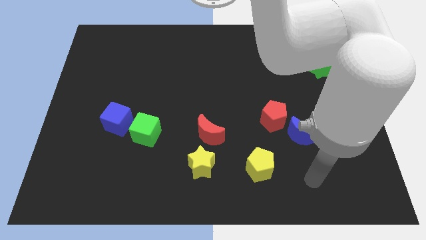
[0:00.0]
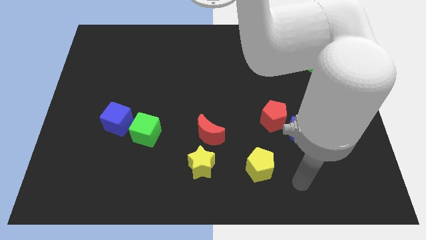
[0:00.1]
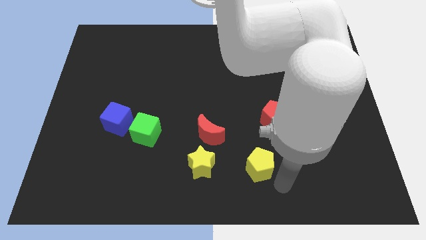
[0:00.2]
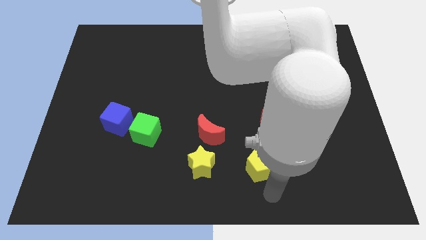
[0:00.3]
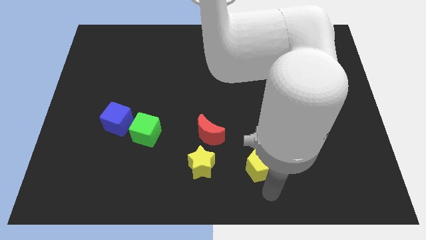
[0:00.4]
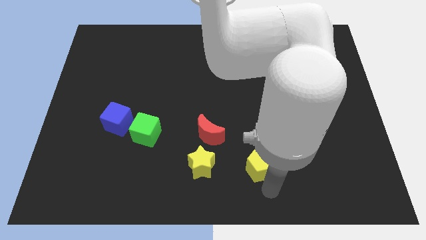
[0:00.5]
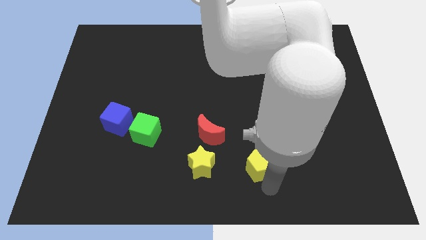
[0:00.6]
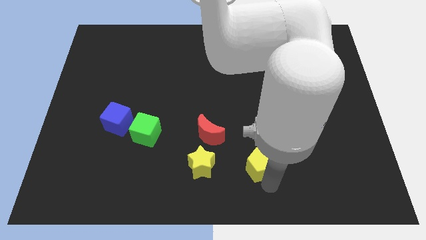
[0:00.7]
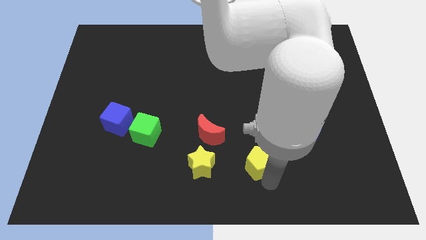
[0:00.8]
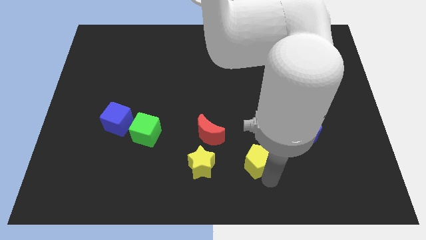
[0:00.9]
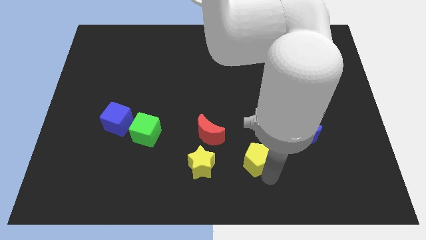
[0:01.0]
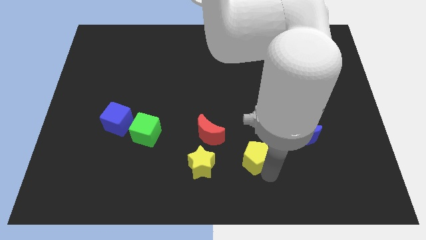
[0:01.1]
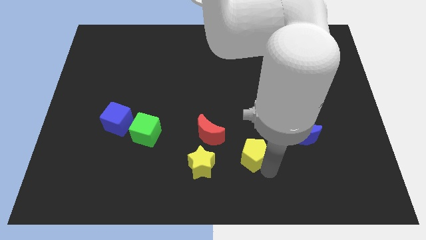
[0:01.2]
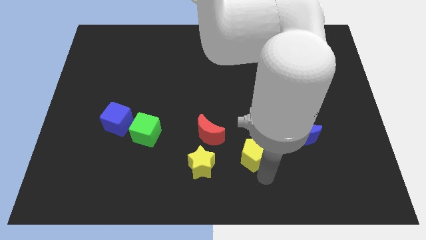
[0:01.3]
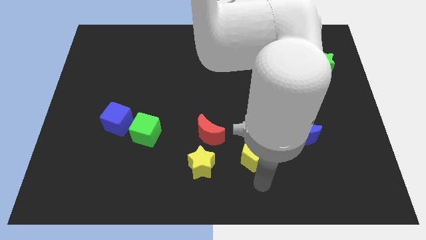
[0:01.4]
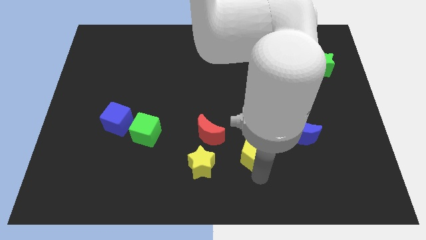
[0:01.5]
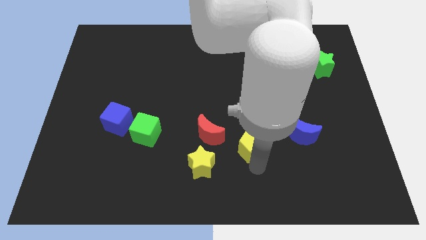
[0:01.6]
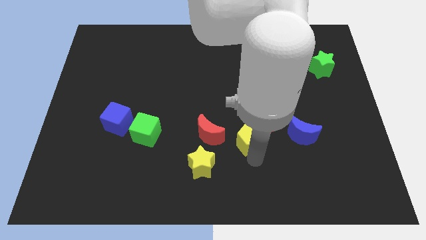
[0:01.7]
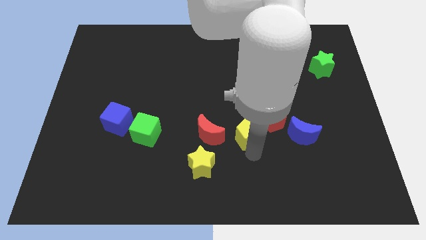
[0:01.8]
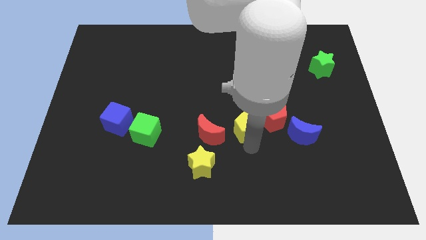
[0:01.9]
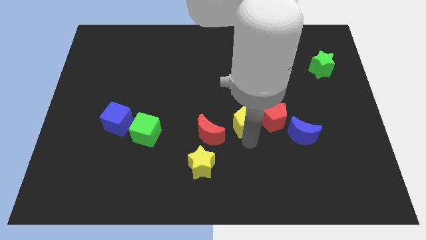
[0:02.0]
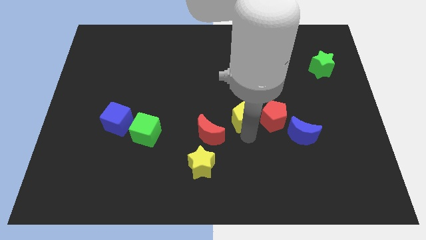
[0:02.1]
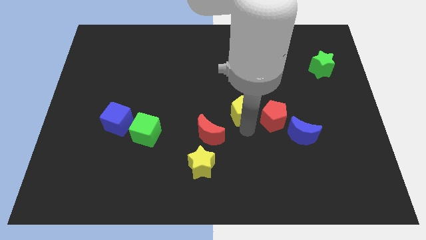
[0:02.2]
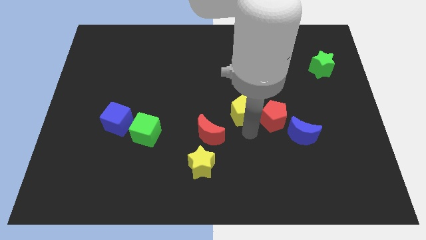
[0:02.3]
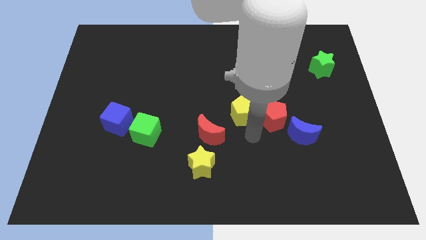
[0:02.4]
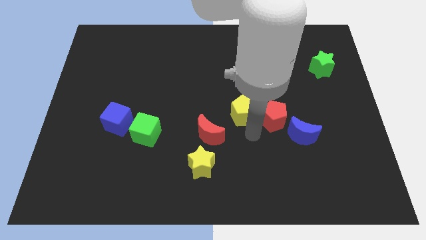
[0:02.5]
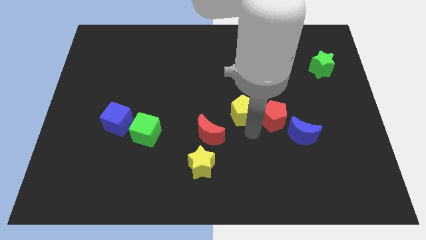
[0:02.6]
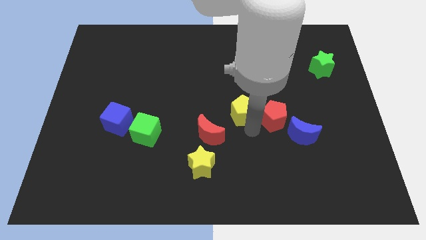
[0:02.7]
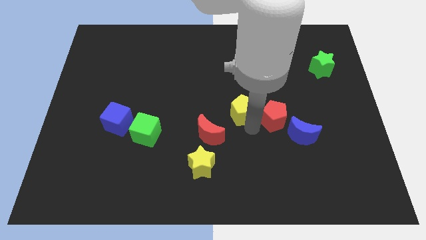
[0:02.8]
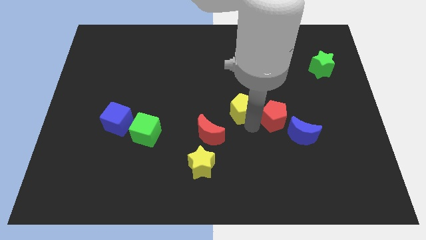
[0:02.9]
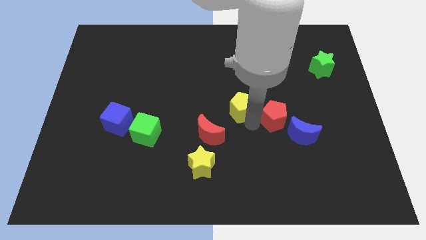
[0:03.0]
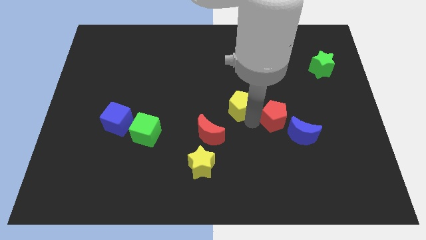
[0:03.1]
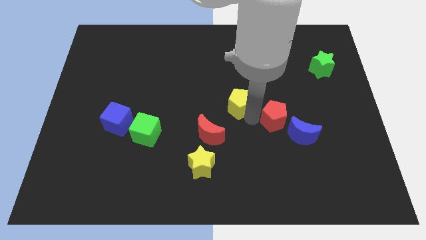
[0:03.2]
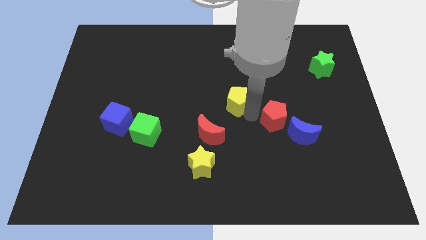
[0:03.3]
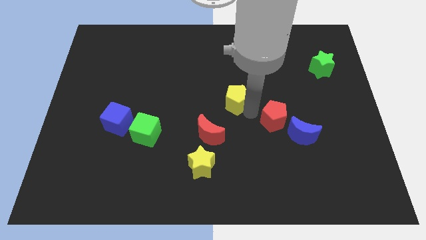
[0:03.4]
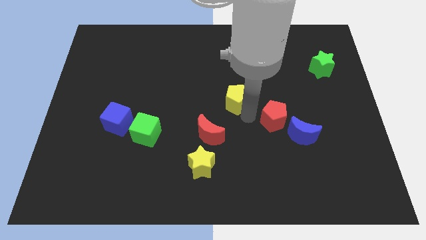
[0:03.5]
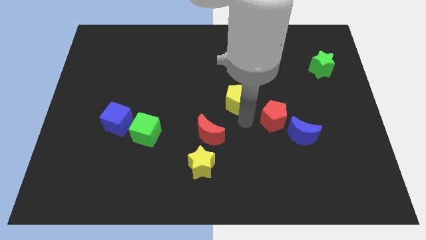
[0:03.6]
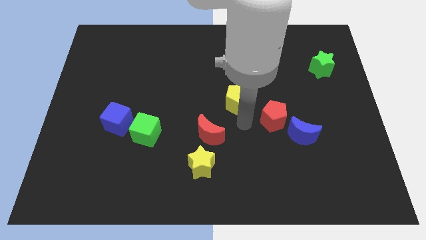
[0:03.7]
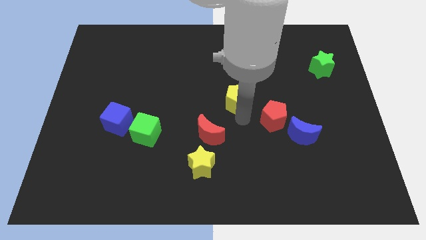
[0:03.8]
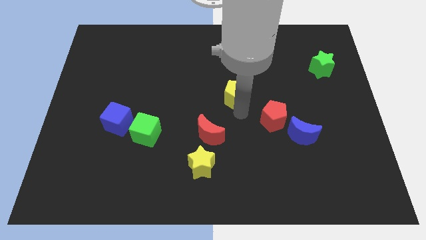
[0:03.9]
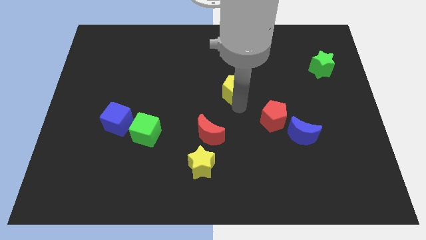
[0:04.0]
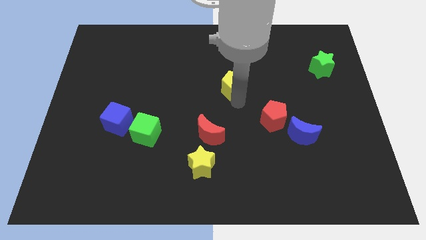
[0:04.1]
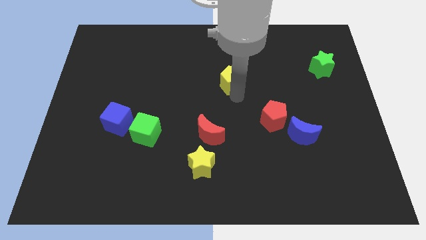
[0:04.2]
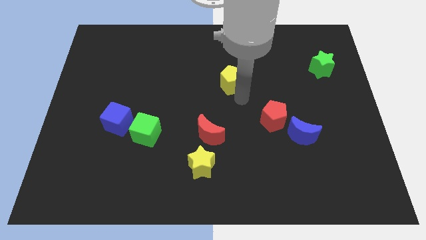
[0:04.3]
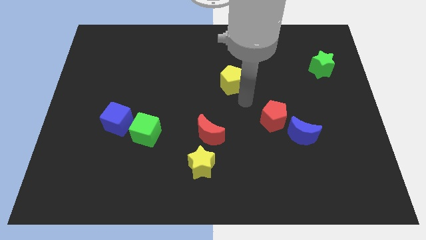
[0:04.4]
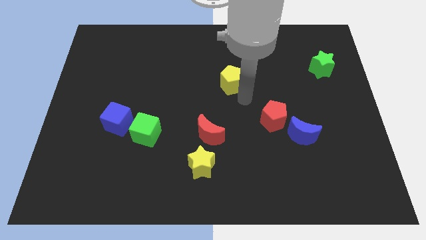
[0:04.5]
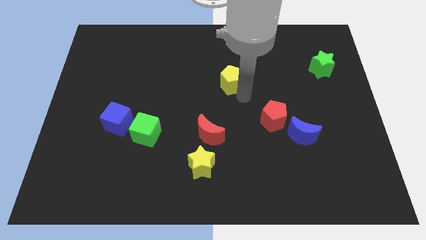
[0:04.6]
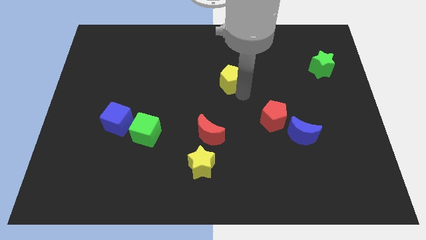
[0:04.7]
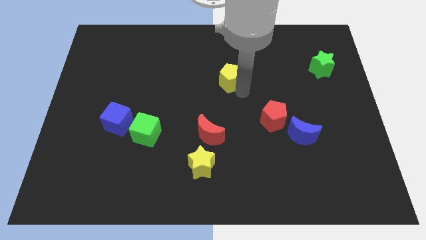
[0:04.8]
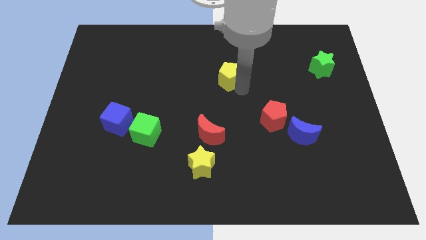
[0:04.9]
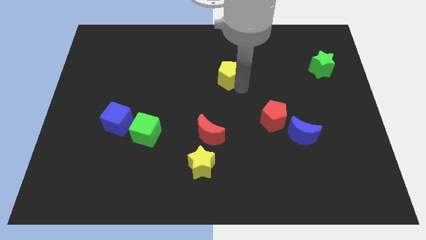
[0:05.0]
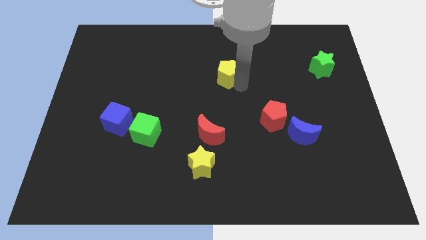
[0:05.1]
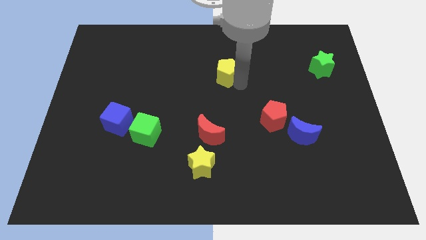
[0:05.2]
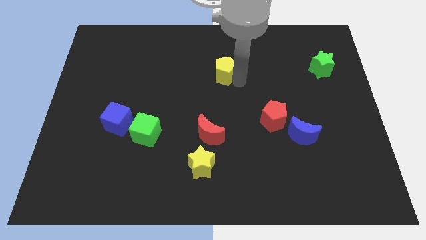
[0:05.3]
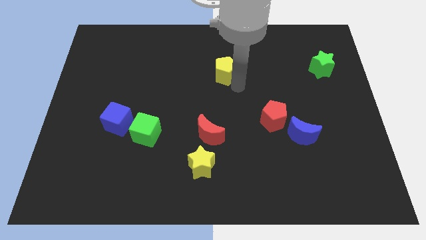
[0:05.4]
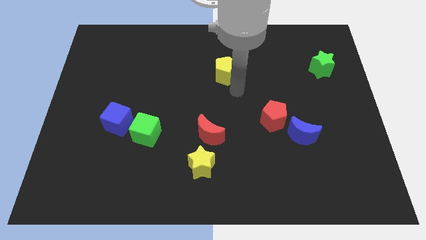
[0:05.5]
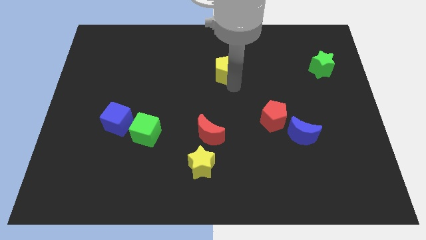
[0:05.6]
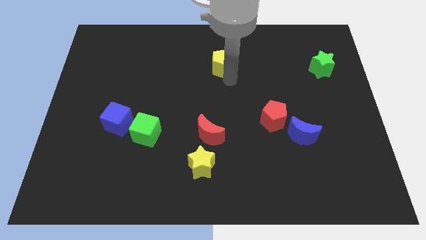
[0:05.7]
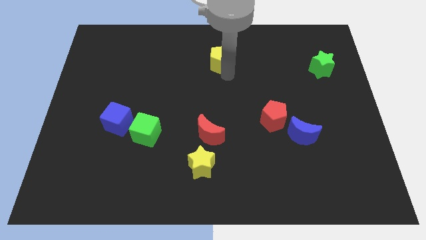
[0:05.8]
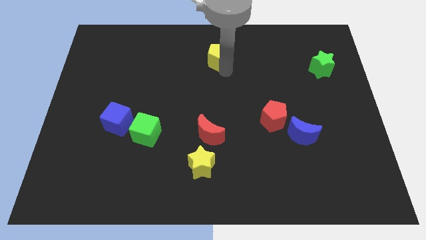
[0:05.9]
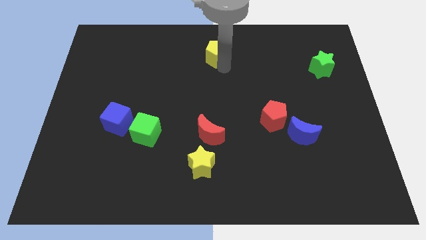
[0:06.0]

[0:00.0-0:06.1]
put the yellow pentagon to the top
